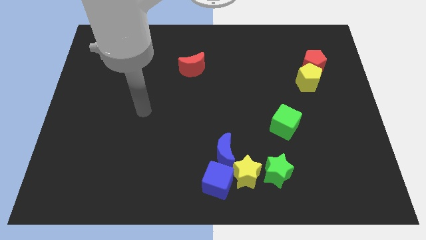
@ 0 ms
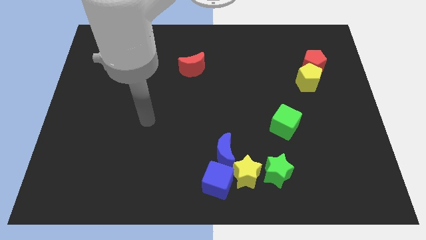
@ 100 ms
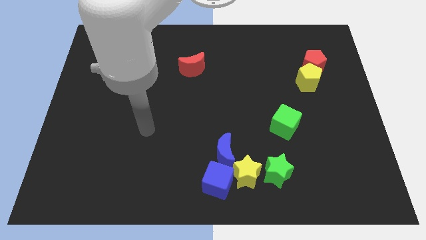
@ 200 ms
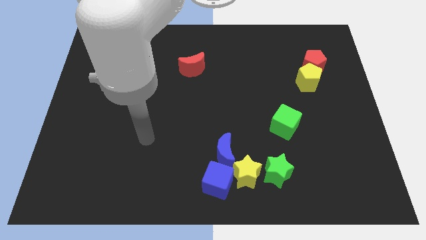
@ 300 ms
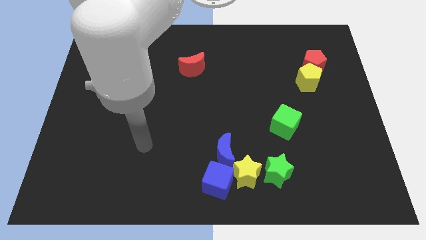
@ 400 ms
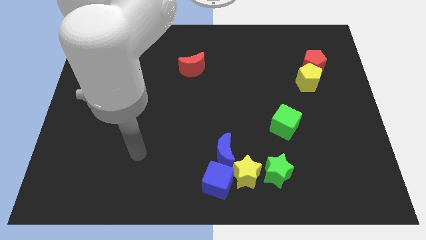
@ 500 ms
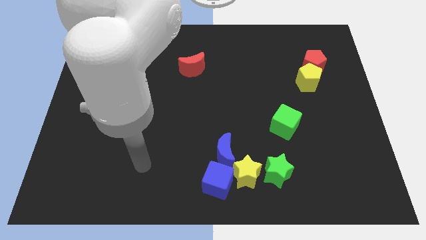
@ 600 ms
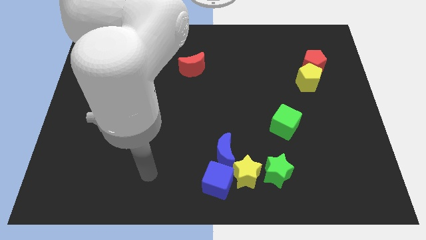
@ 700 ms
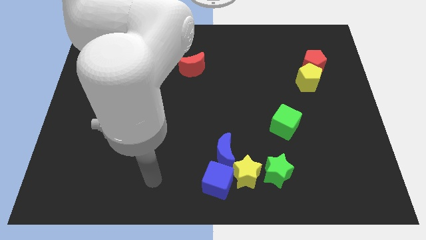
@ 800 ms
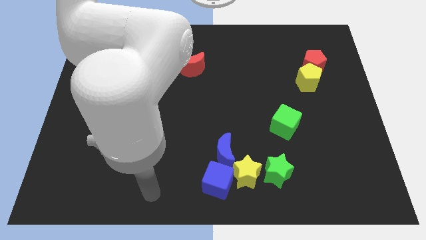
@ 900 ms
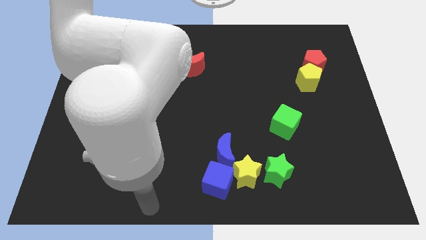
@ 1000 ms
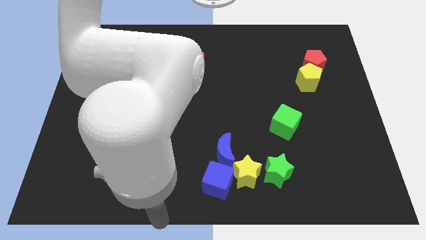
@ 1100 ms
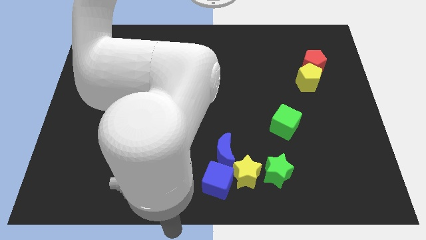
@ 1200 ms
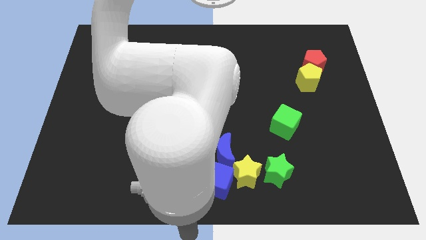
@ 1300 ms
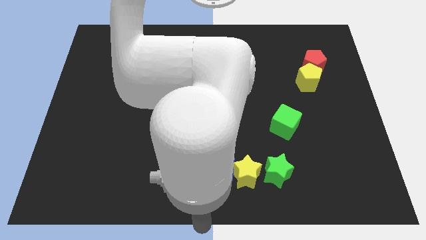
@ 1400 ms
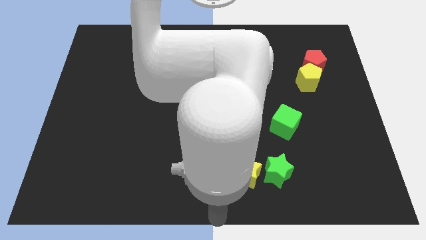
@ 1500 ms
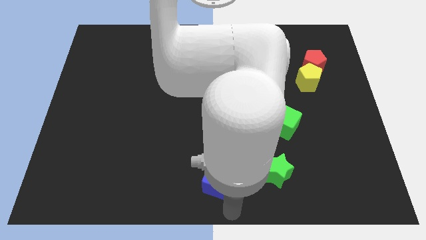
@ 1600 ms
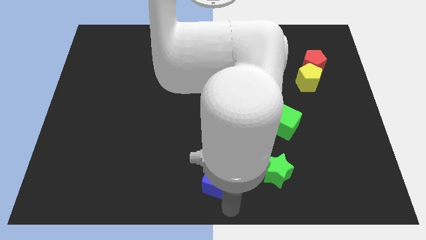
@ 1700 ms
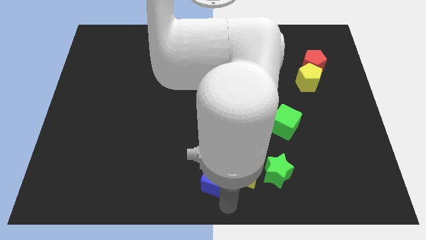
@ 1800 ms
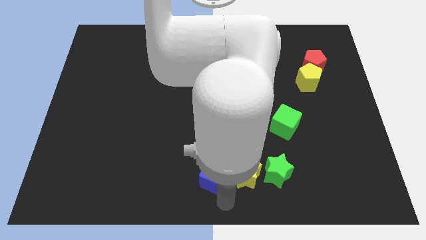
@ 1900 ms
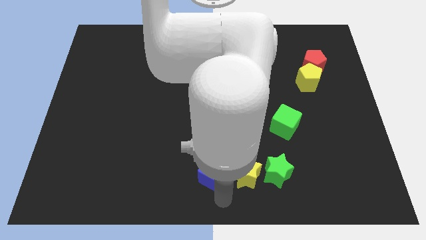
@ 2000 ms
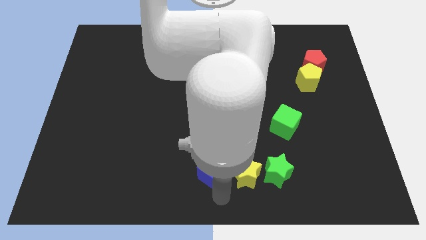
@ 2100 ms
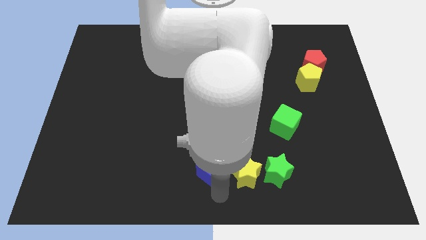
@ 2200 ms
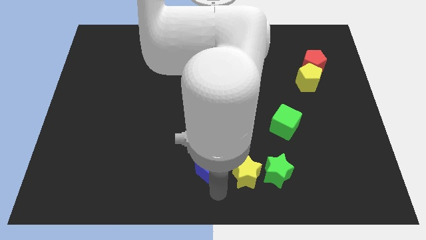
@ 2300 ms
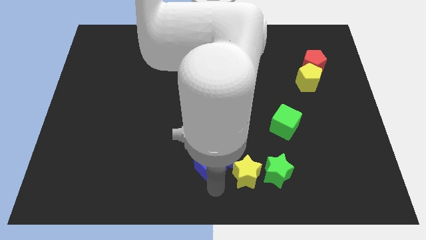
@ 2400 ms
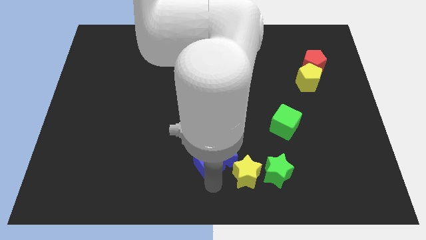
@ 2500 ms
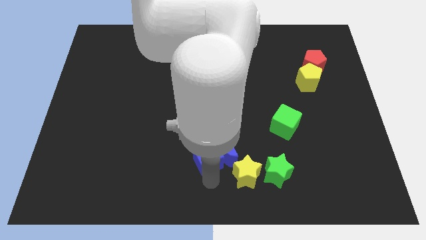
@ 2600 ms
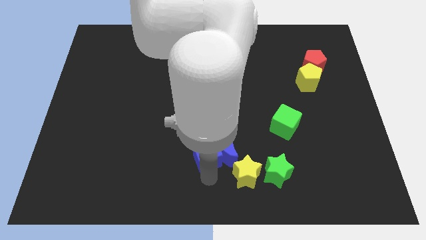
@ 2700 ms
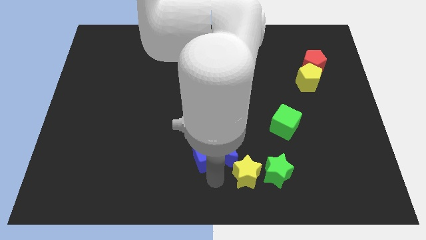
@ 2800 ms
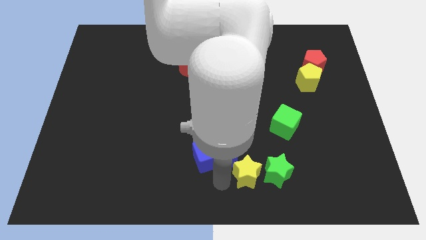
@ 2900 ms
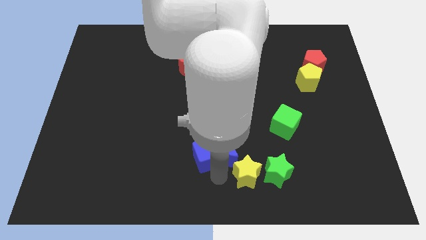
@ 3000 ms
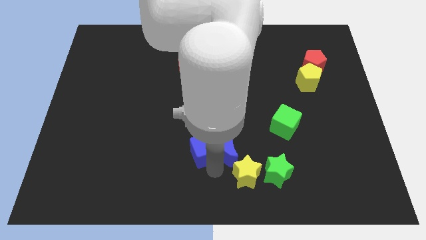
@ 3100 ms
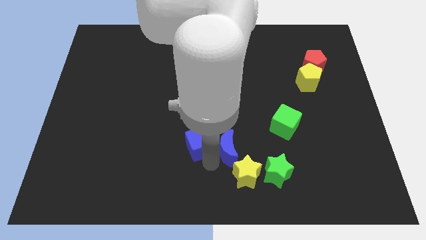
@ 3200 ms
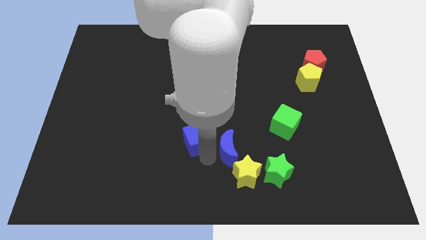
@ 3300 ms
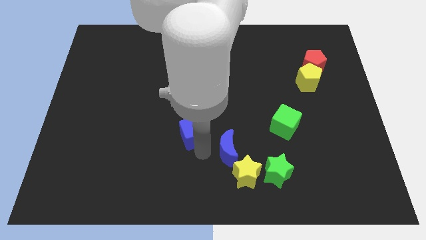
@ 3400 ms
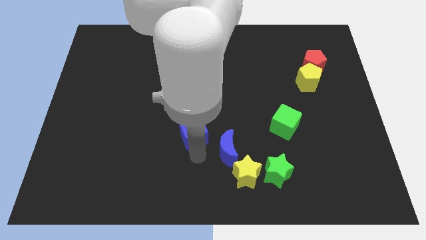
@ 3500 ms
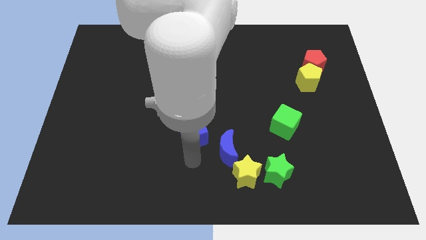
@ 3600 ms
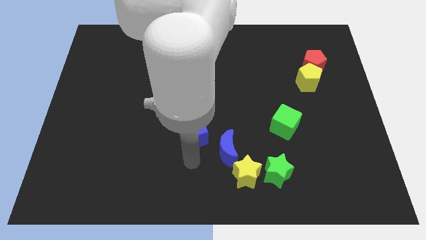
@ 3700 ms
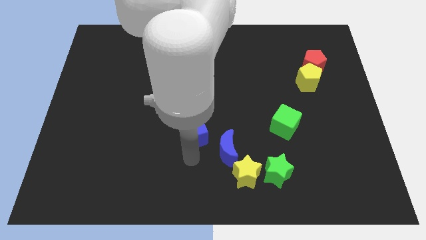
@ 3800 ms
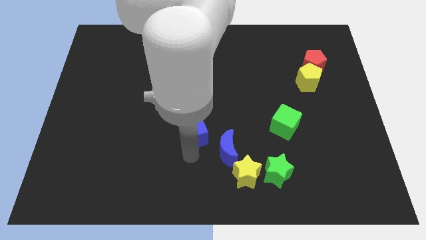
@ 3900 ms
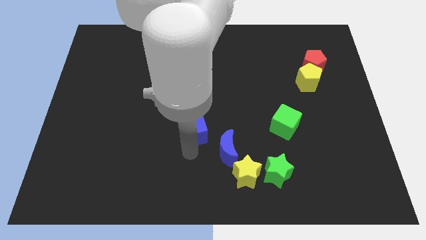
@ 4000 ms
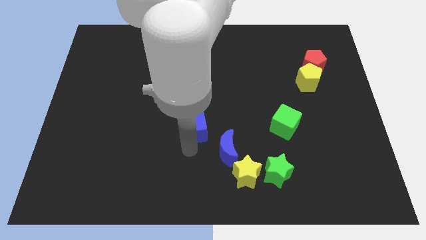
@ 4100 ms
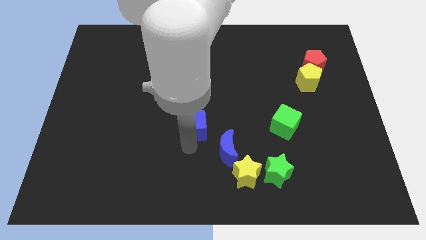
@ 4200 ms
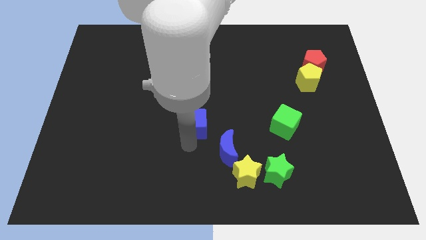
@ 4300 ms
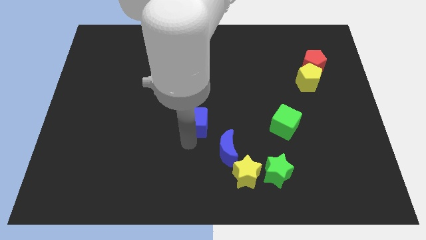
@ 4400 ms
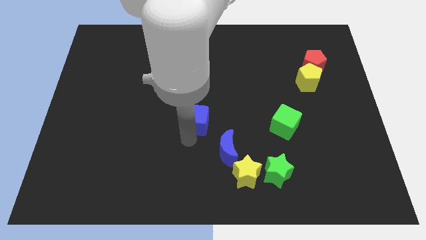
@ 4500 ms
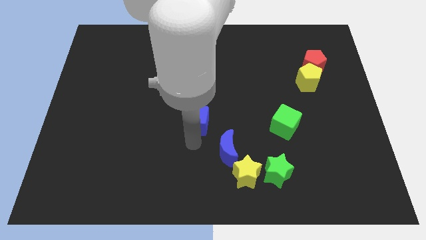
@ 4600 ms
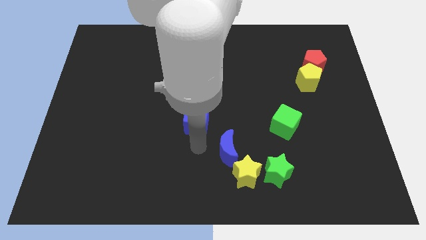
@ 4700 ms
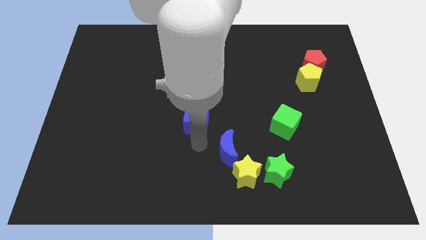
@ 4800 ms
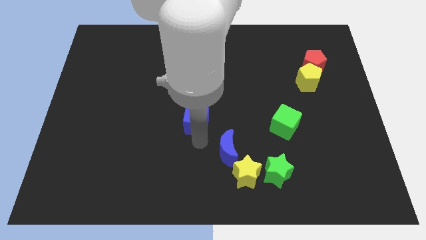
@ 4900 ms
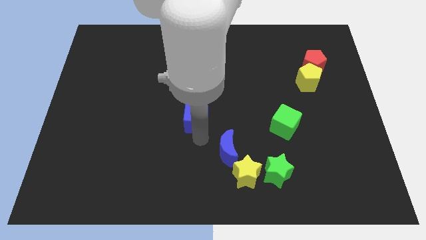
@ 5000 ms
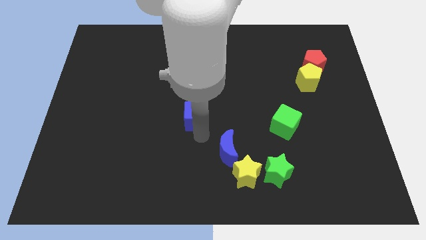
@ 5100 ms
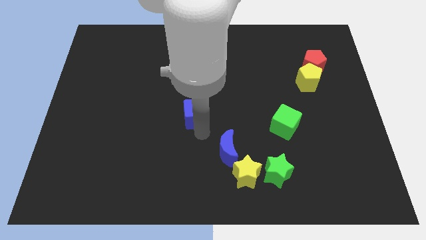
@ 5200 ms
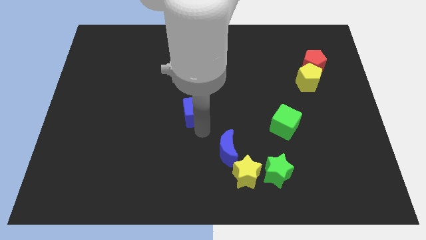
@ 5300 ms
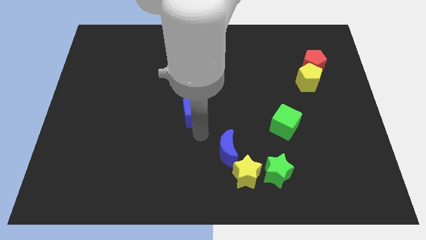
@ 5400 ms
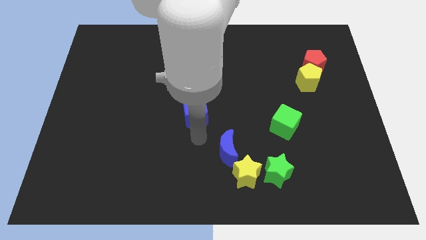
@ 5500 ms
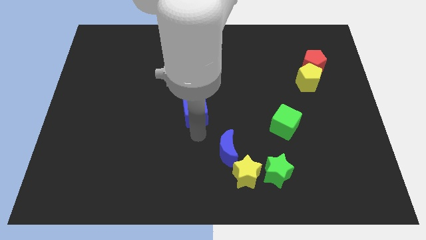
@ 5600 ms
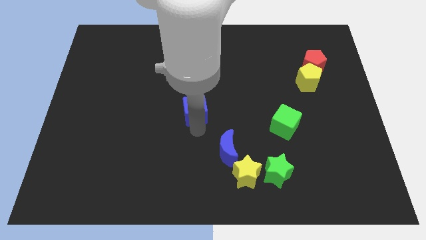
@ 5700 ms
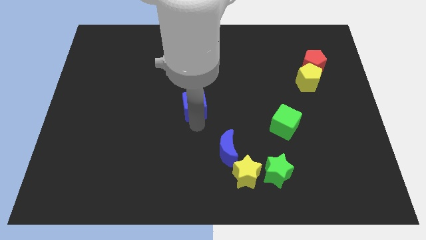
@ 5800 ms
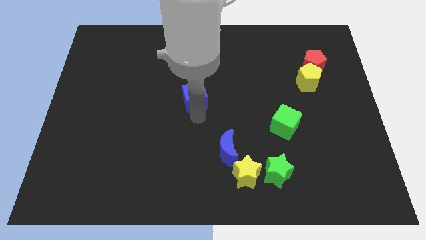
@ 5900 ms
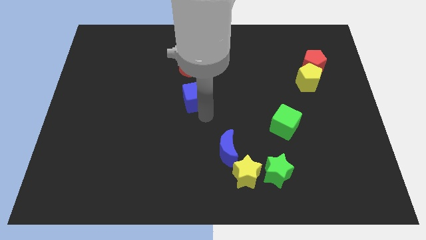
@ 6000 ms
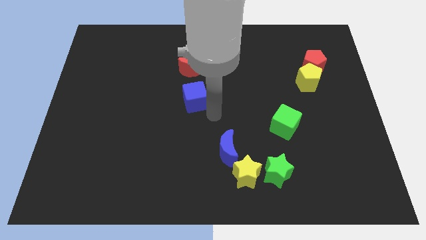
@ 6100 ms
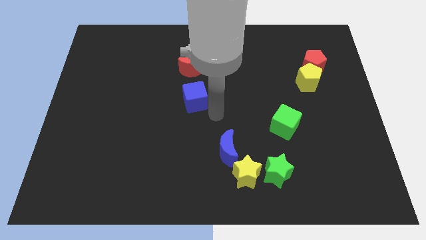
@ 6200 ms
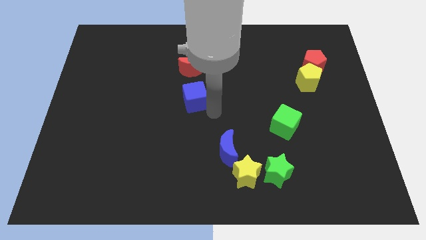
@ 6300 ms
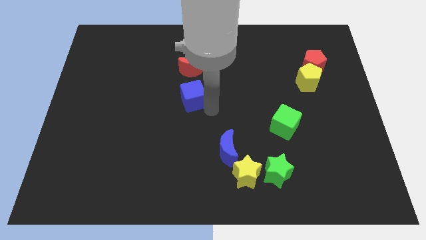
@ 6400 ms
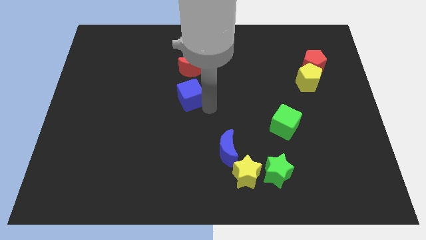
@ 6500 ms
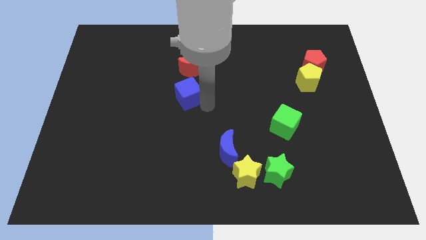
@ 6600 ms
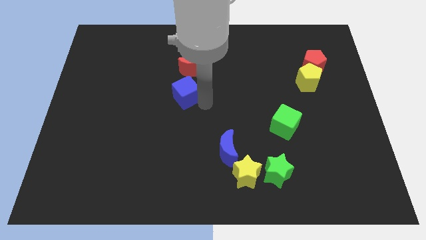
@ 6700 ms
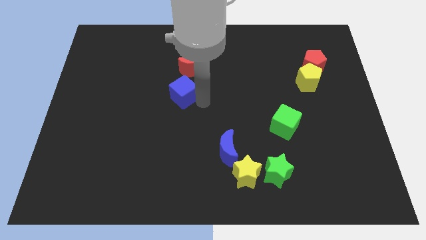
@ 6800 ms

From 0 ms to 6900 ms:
push the blue cube to the bottom left side of the red moon

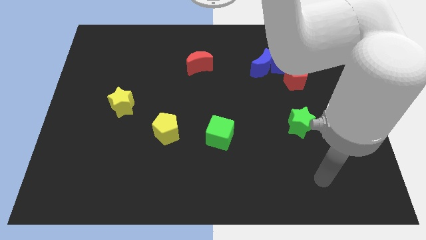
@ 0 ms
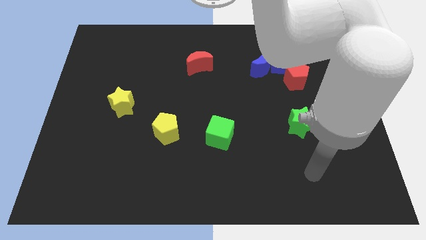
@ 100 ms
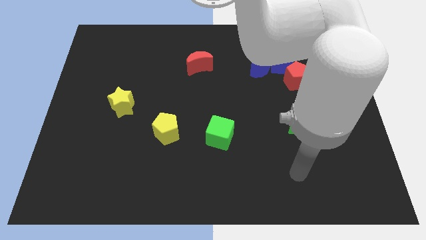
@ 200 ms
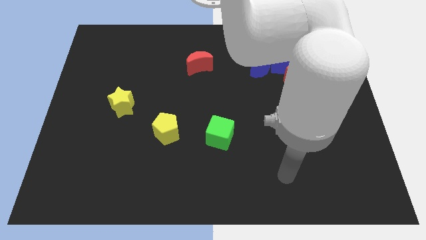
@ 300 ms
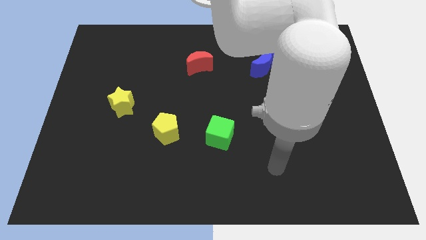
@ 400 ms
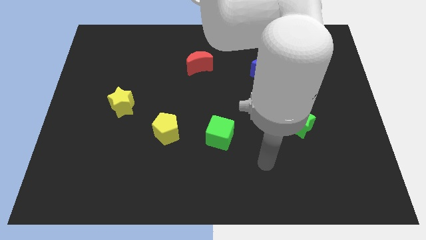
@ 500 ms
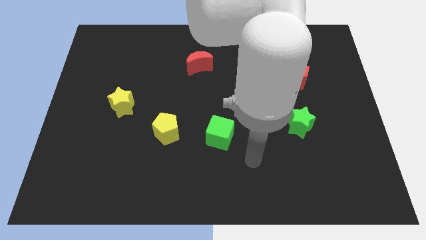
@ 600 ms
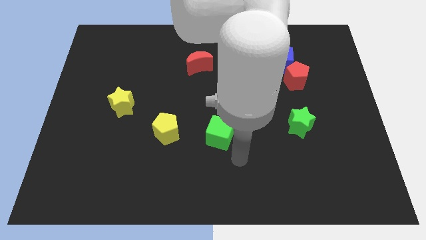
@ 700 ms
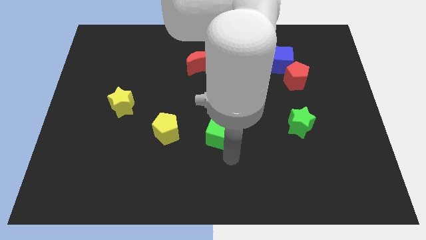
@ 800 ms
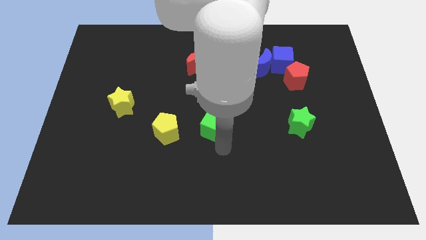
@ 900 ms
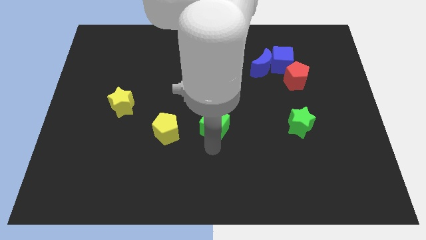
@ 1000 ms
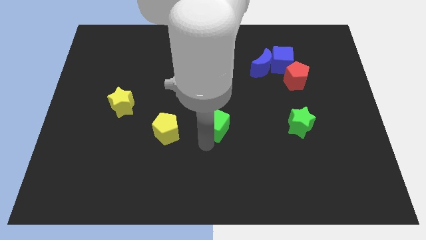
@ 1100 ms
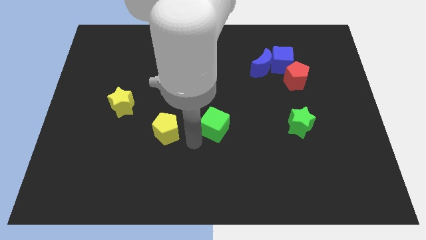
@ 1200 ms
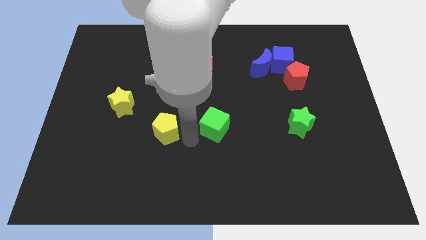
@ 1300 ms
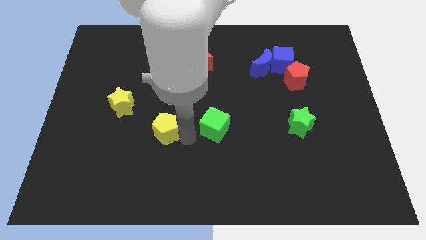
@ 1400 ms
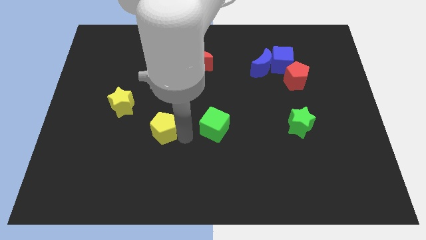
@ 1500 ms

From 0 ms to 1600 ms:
put the yellow pentagon to the bottom right side of the yellow star
